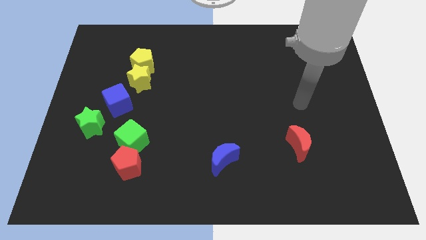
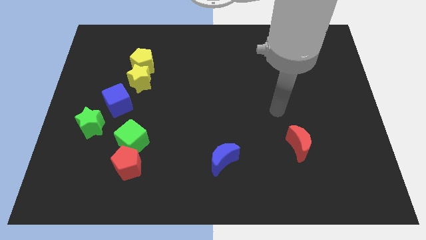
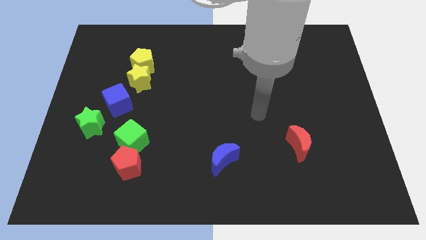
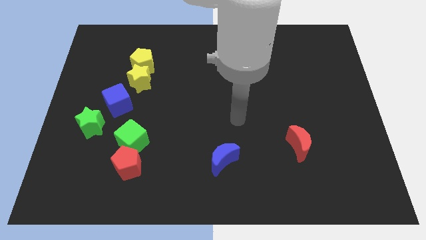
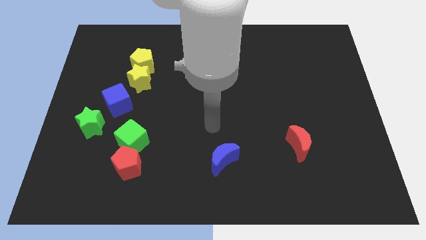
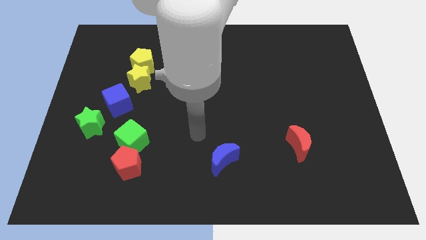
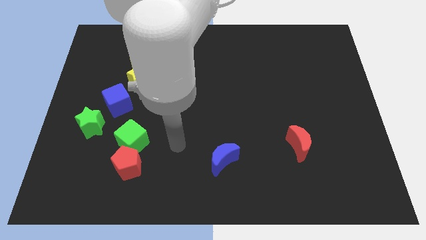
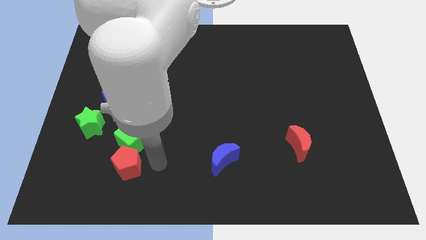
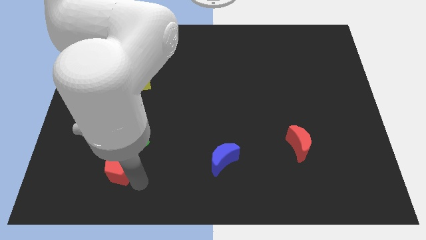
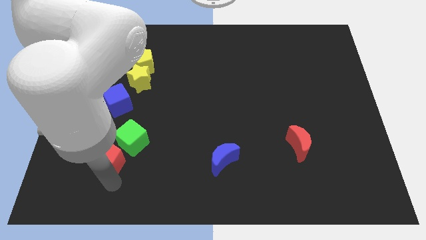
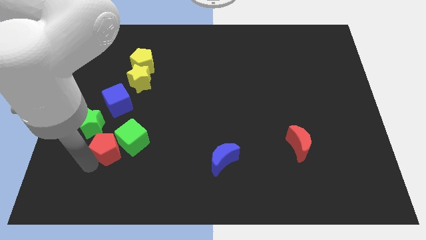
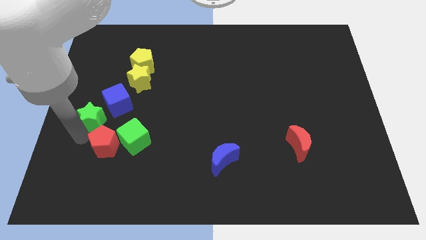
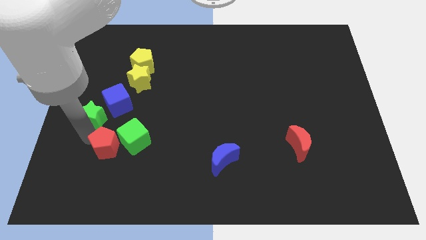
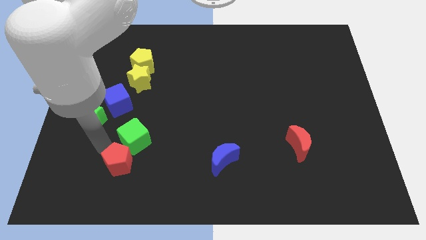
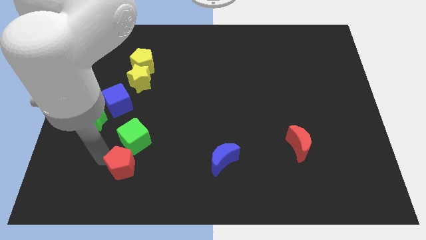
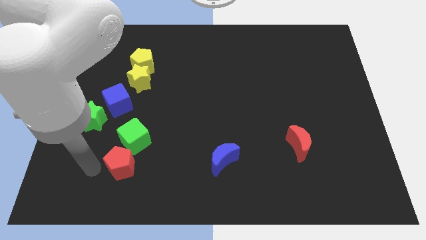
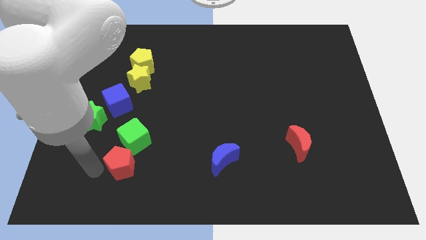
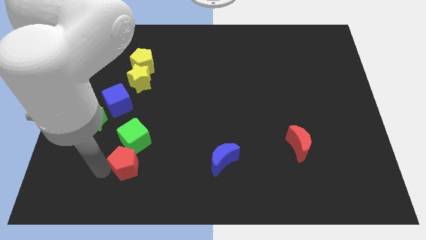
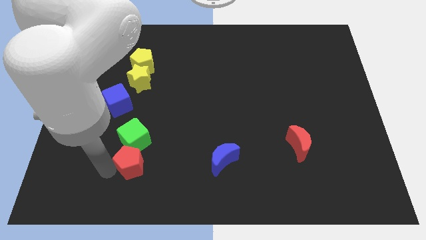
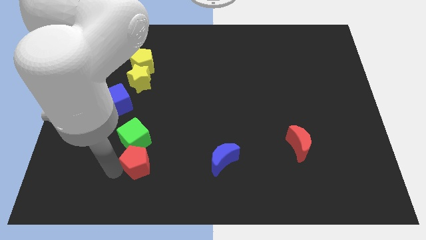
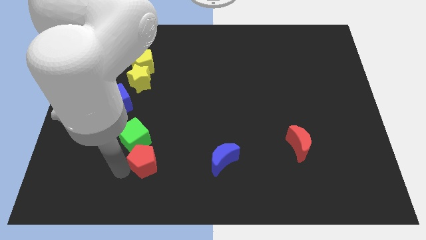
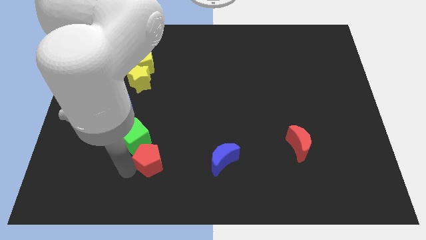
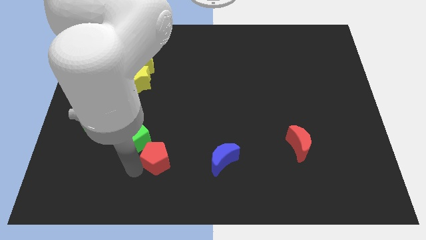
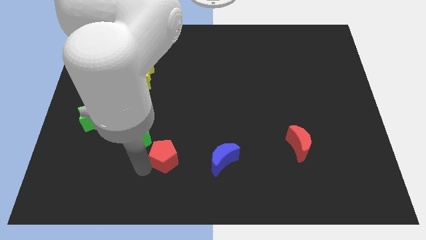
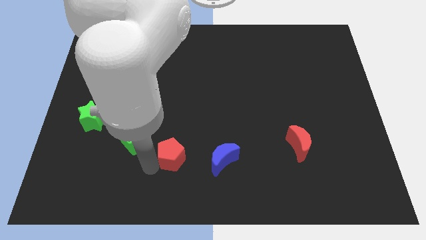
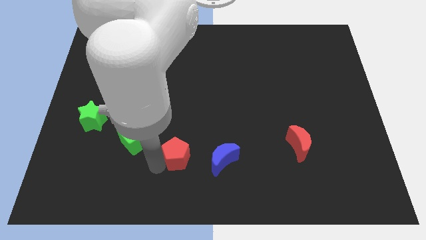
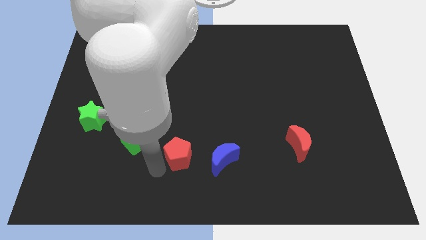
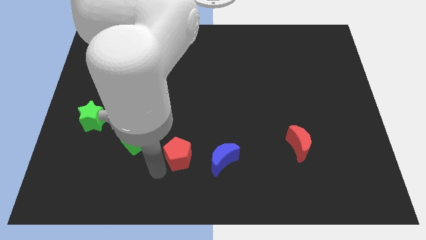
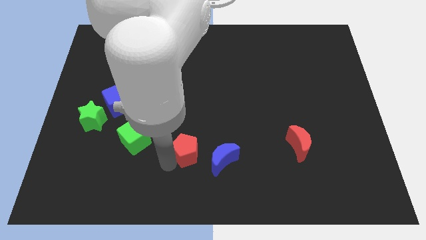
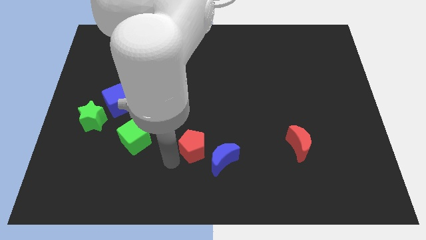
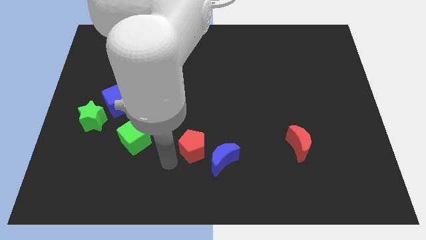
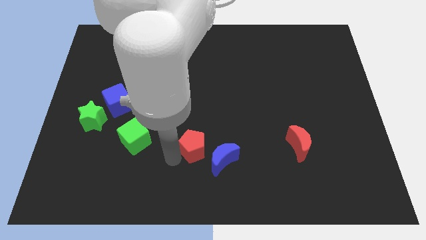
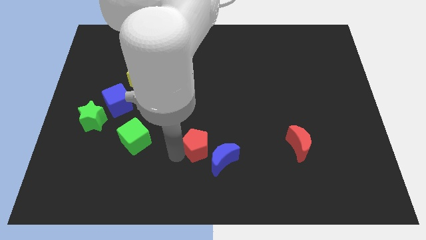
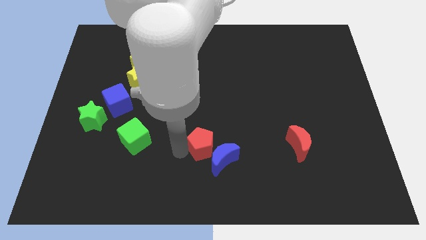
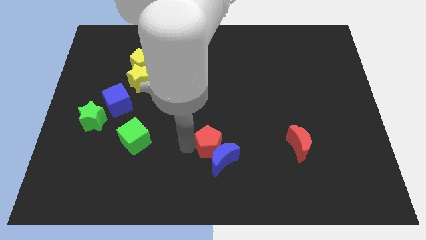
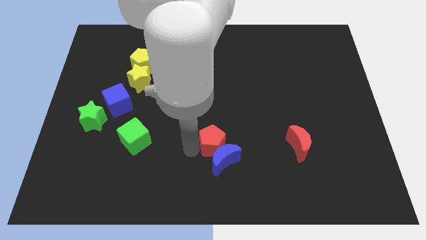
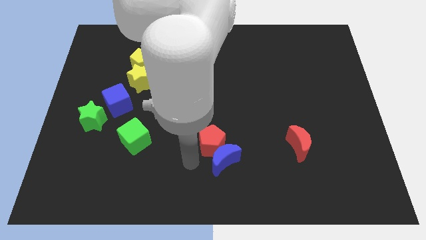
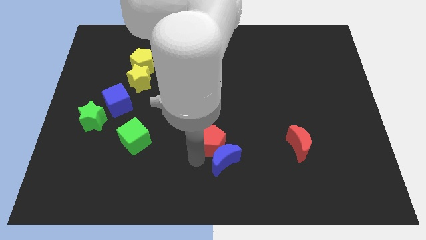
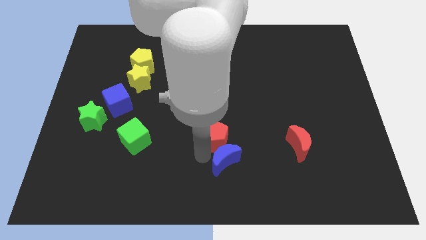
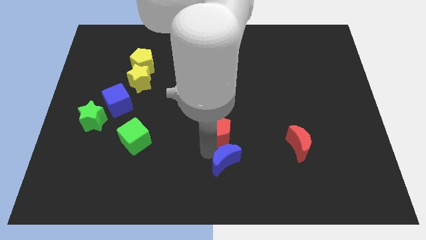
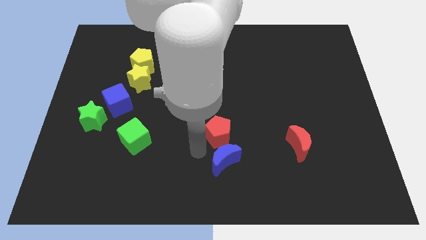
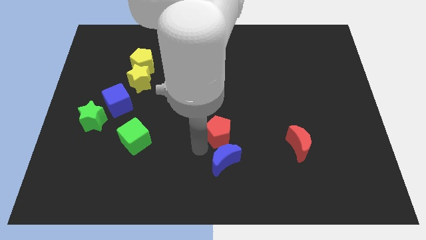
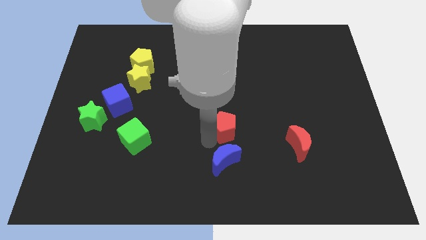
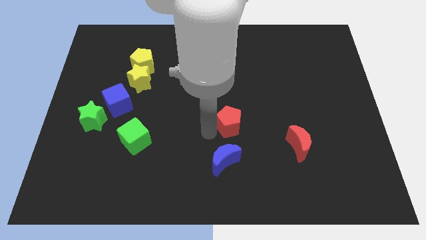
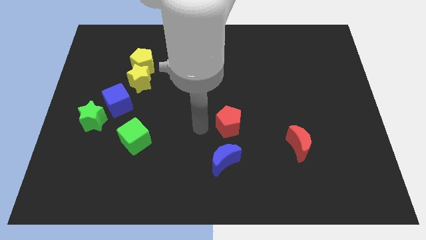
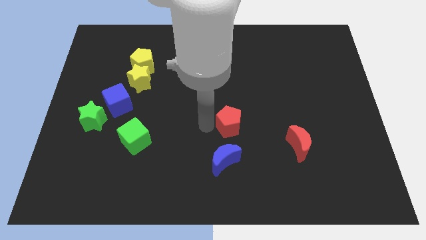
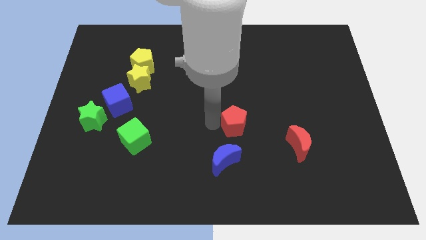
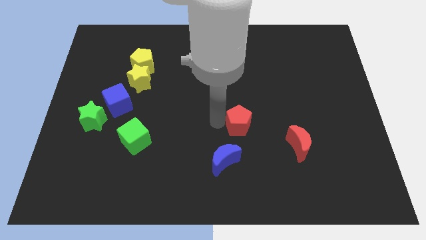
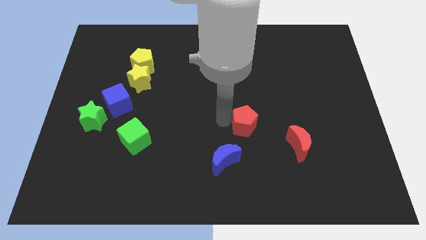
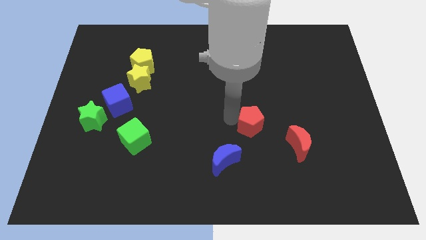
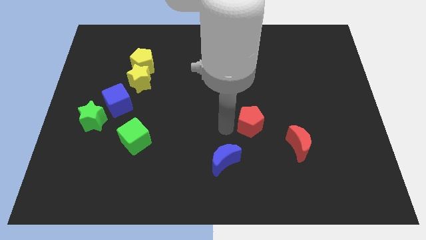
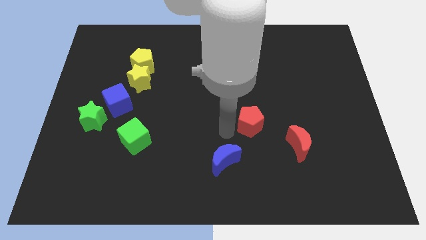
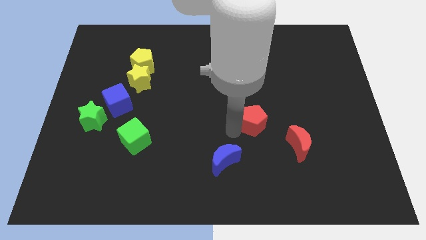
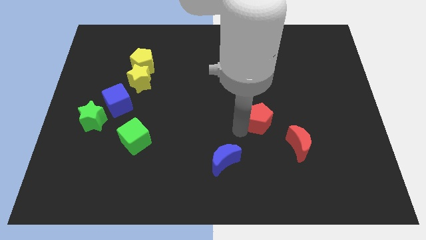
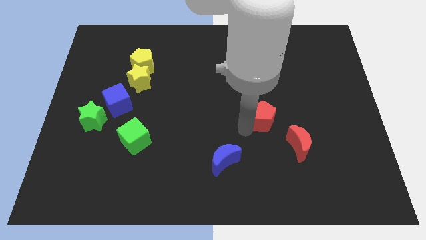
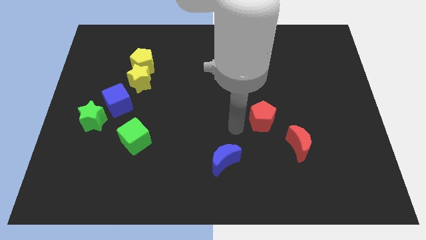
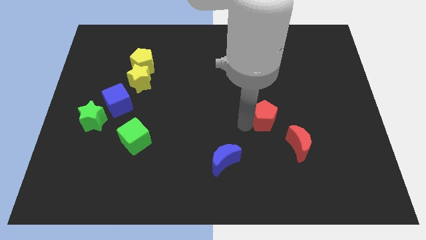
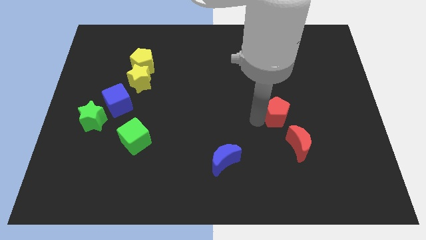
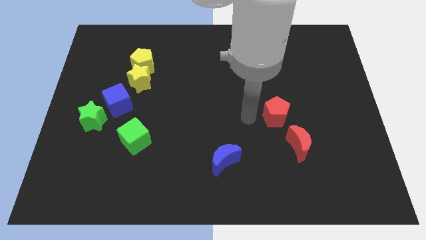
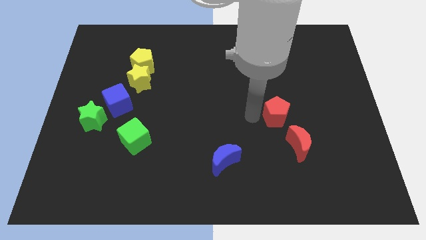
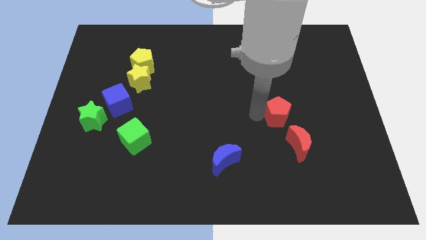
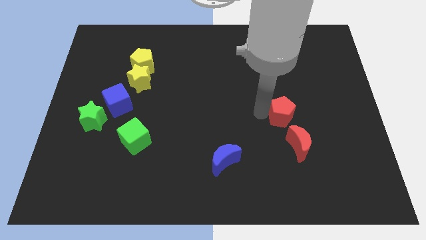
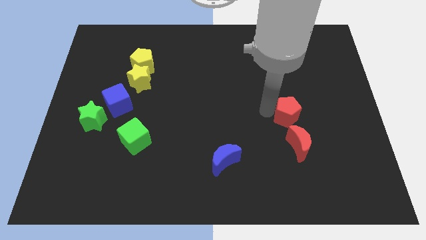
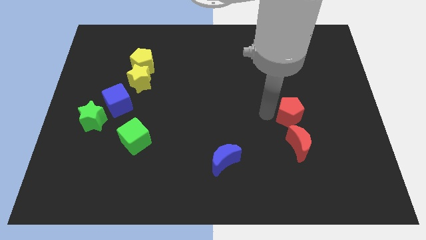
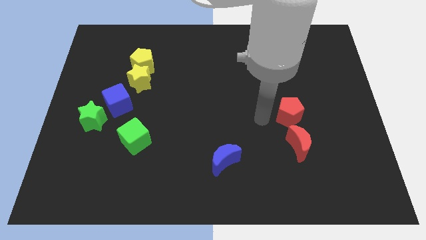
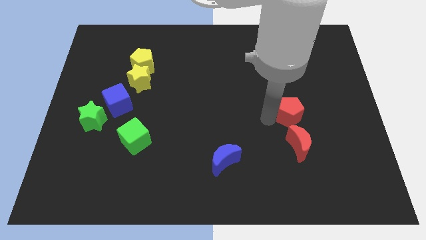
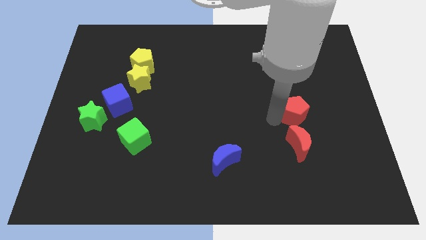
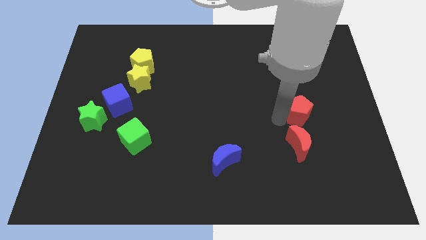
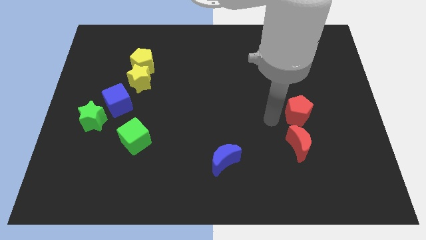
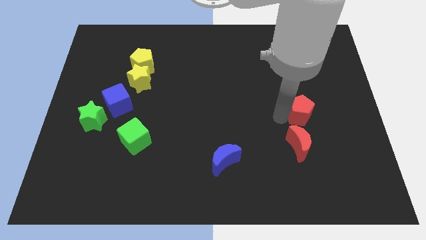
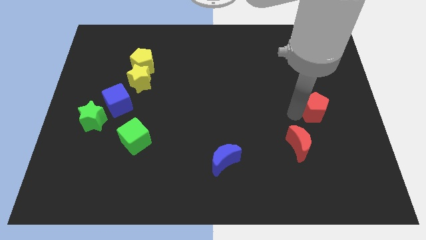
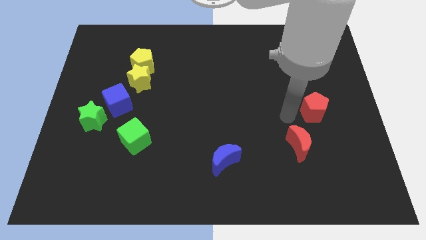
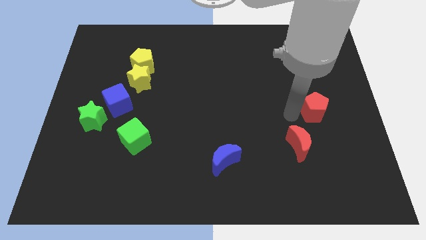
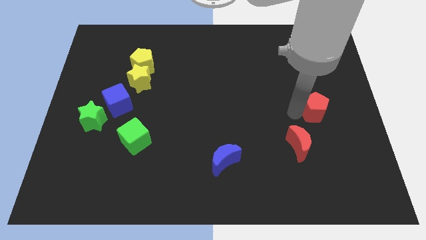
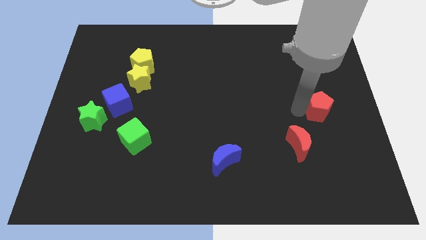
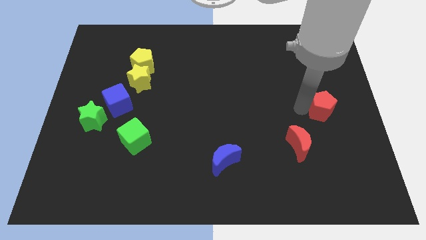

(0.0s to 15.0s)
move the red pentagon to the right side
